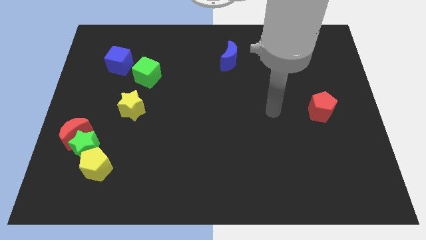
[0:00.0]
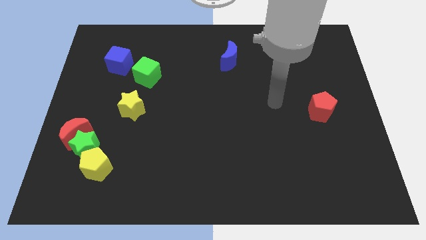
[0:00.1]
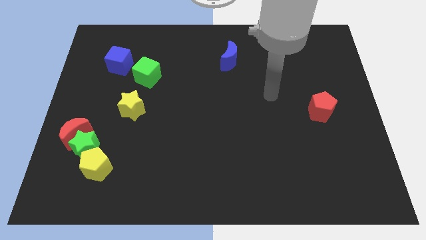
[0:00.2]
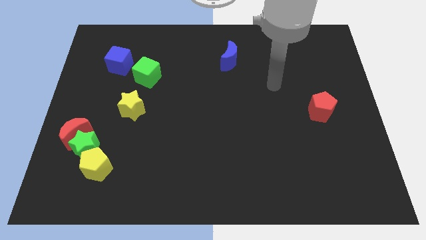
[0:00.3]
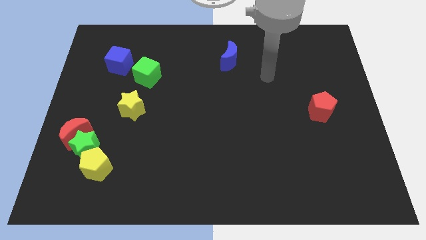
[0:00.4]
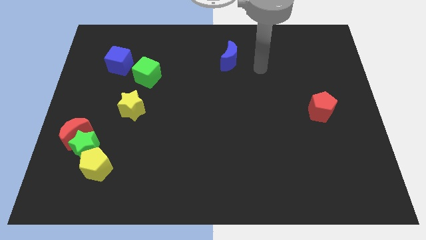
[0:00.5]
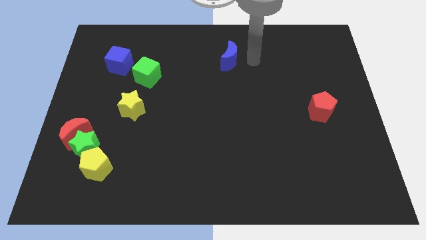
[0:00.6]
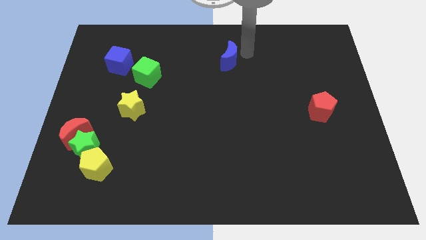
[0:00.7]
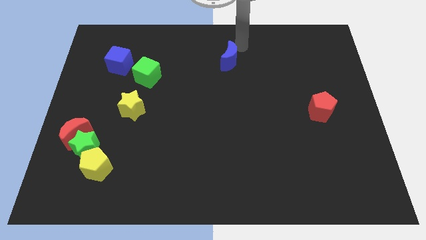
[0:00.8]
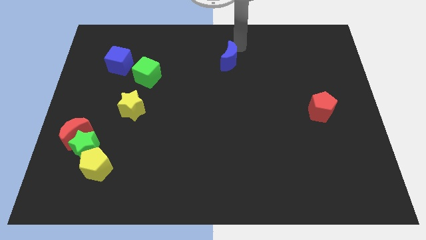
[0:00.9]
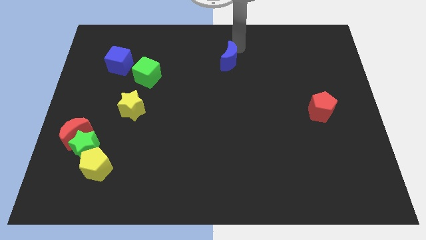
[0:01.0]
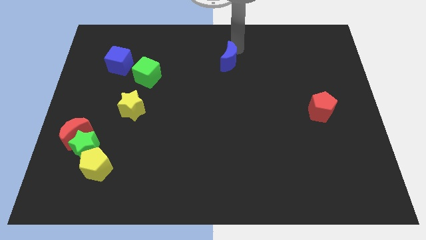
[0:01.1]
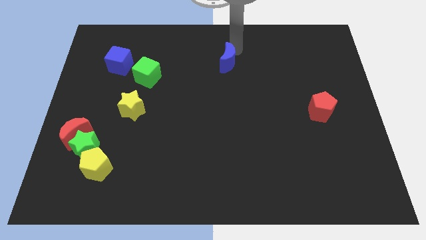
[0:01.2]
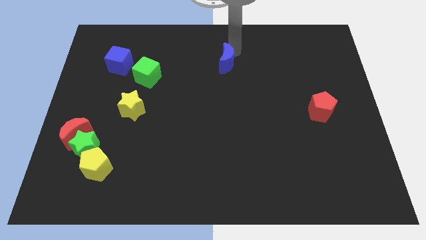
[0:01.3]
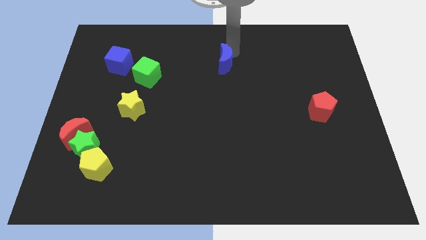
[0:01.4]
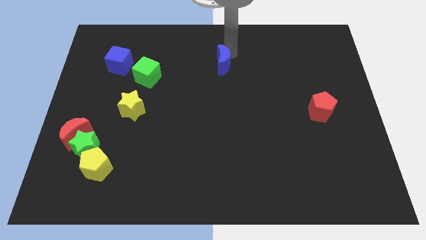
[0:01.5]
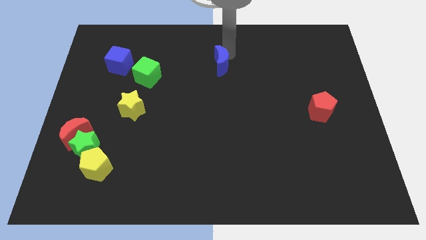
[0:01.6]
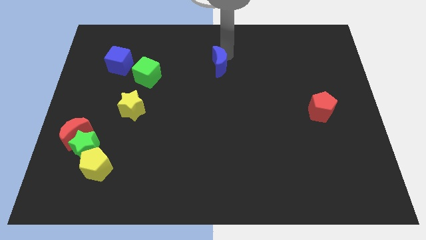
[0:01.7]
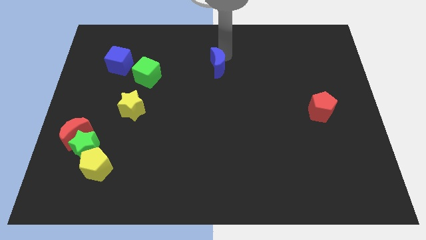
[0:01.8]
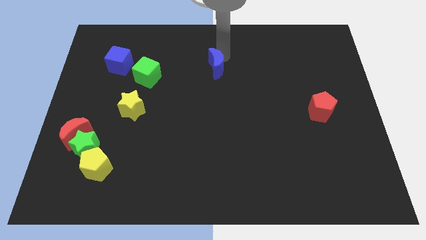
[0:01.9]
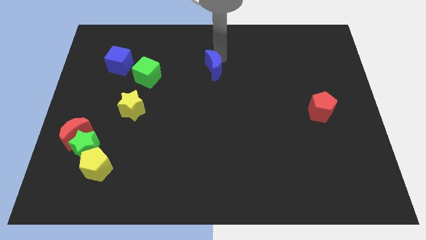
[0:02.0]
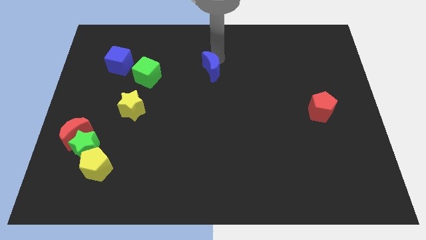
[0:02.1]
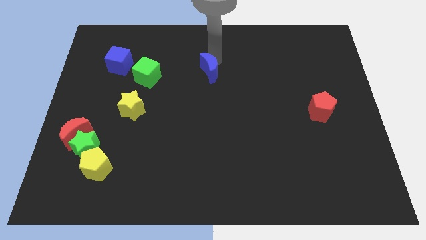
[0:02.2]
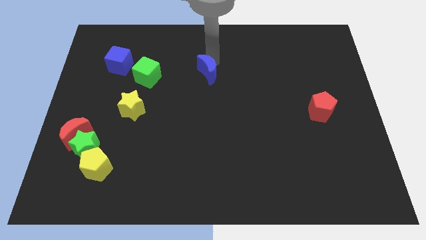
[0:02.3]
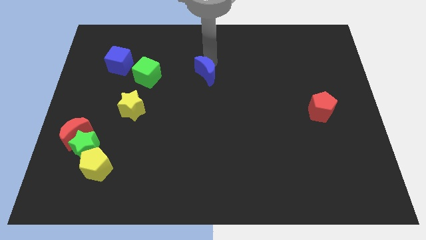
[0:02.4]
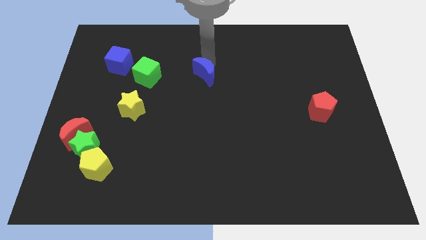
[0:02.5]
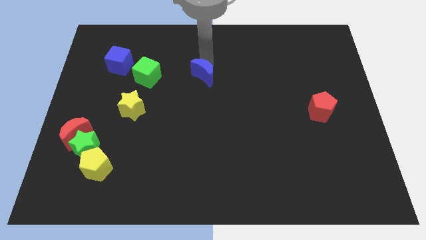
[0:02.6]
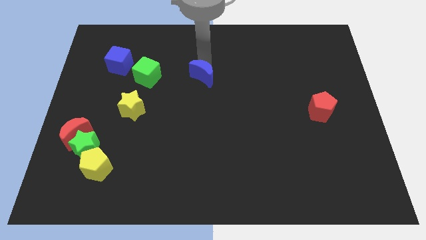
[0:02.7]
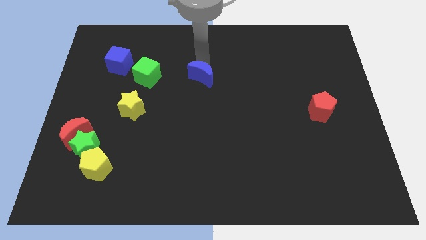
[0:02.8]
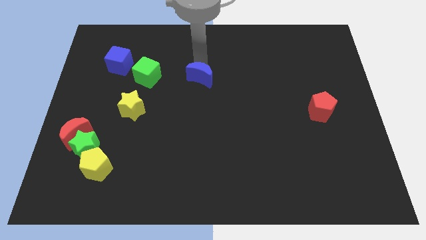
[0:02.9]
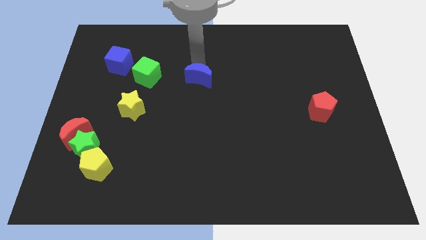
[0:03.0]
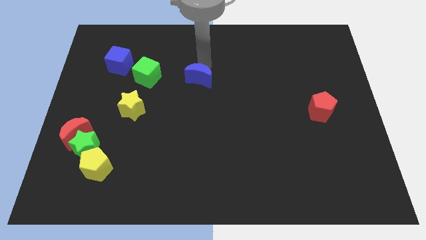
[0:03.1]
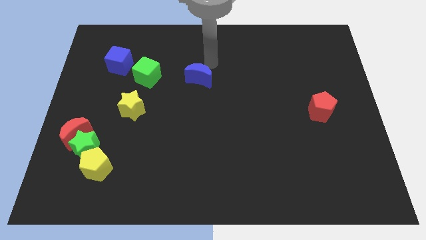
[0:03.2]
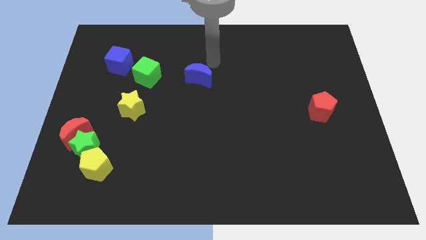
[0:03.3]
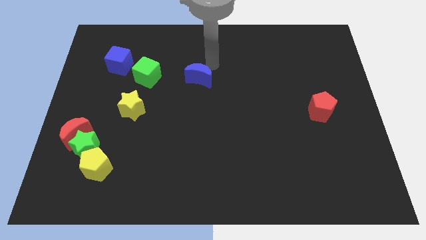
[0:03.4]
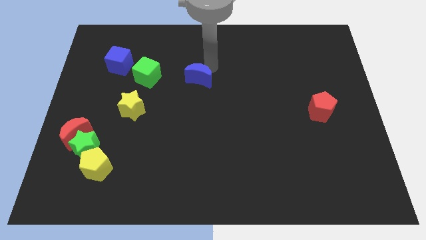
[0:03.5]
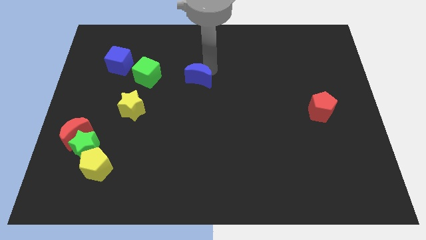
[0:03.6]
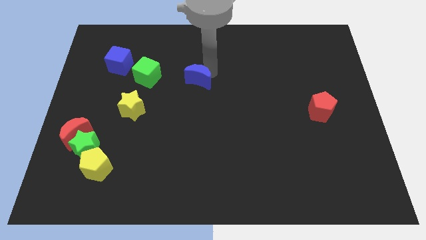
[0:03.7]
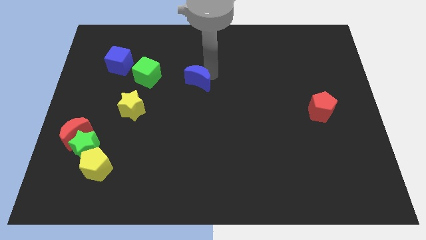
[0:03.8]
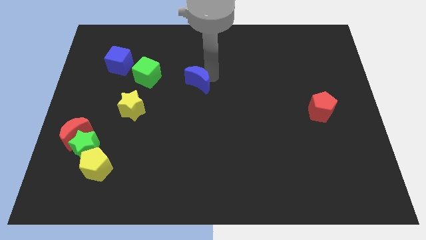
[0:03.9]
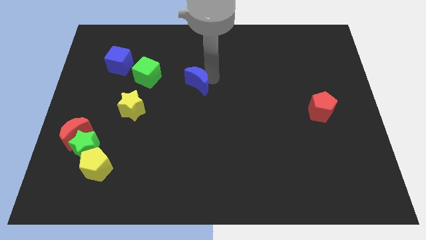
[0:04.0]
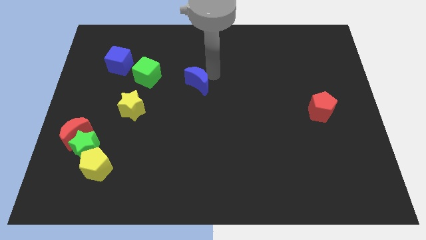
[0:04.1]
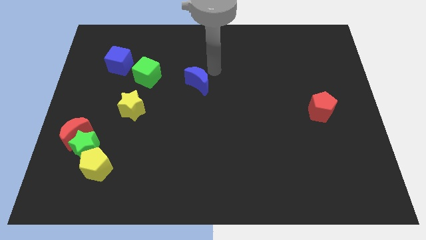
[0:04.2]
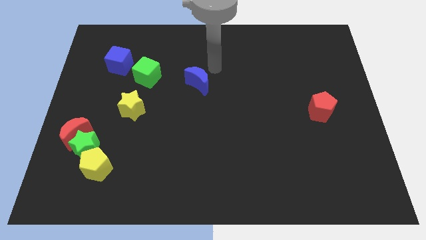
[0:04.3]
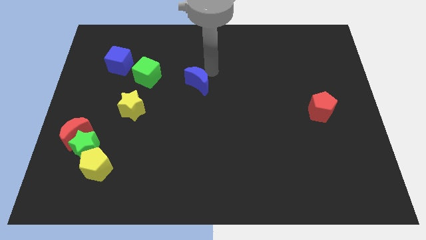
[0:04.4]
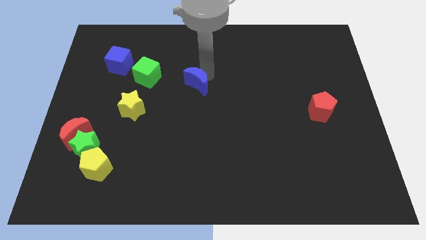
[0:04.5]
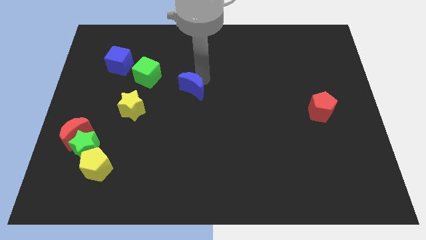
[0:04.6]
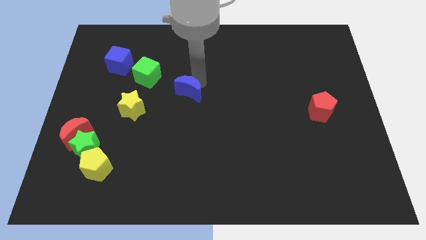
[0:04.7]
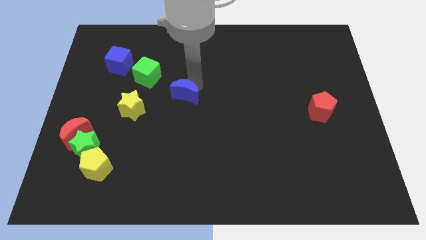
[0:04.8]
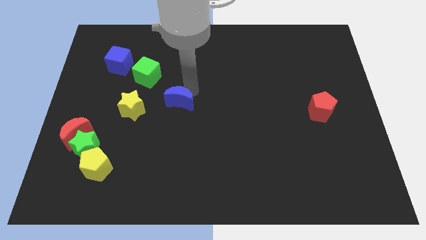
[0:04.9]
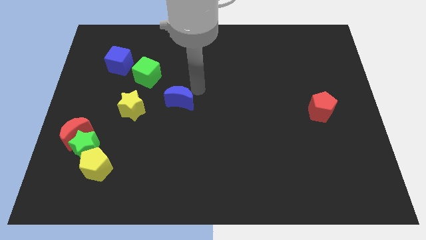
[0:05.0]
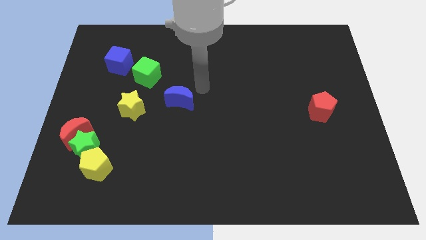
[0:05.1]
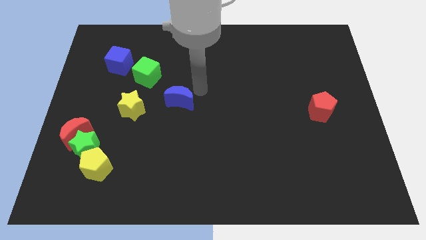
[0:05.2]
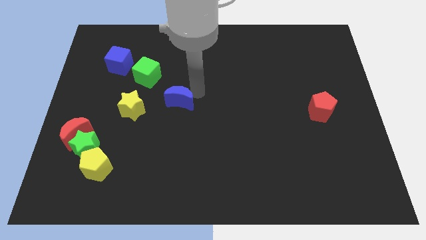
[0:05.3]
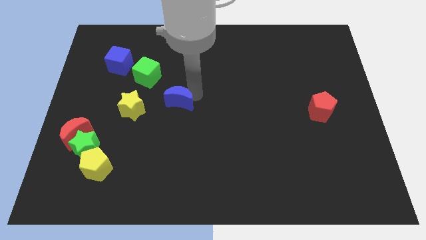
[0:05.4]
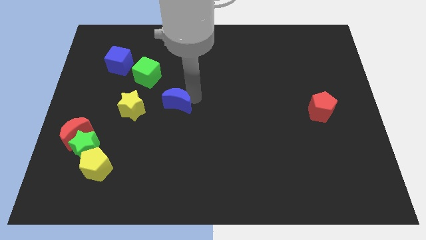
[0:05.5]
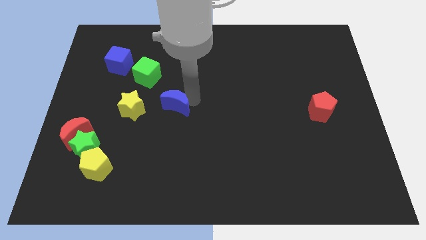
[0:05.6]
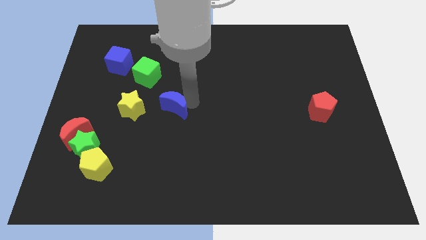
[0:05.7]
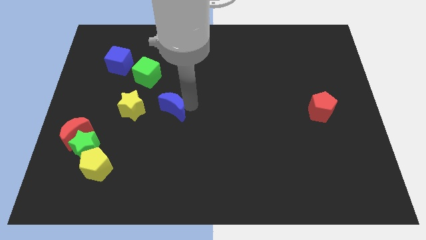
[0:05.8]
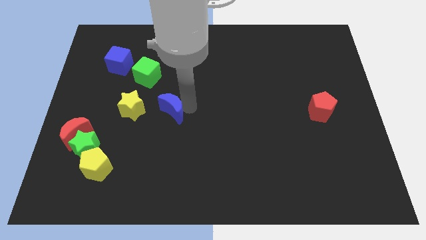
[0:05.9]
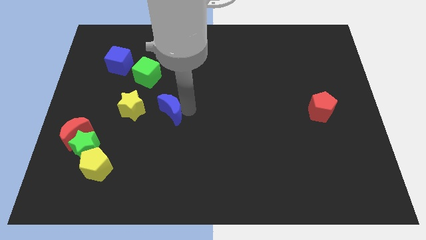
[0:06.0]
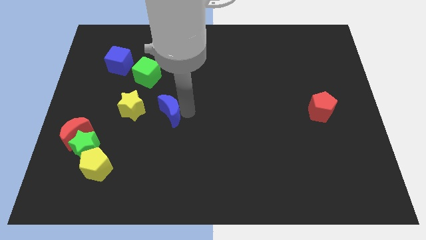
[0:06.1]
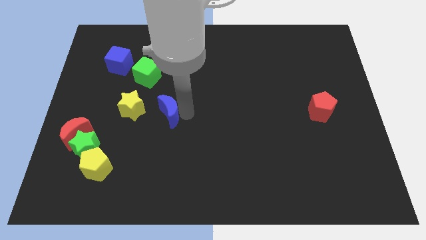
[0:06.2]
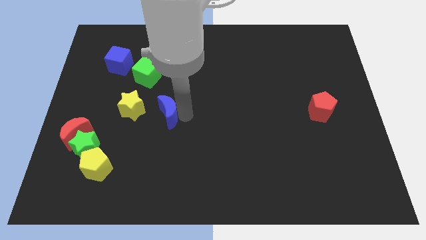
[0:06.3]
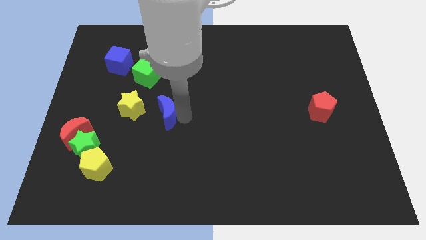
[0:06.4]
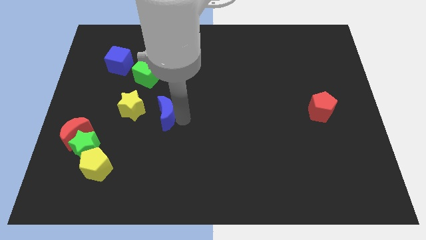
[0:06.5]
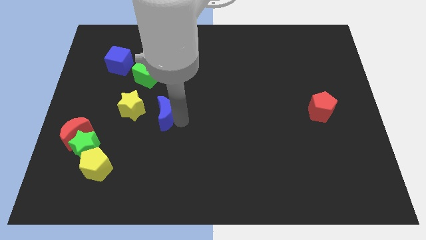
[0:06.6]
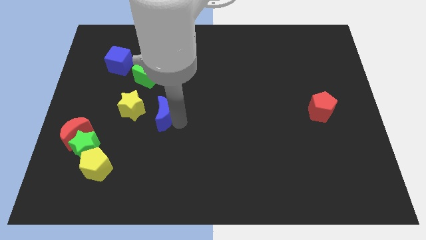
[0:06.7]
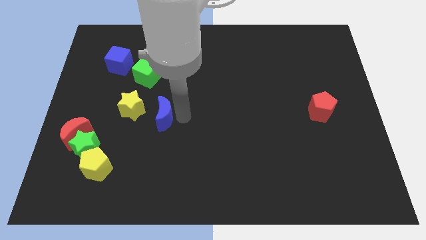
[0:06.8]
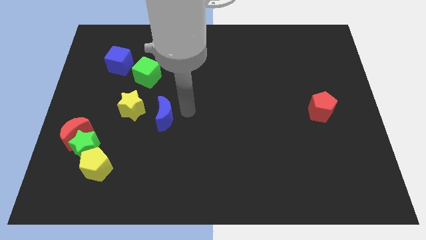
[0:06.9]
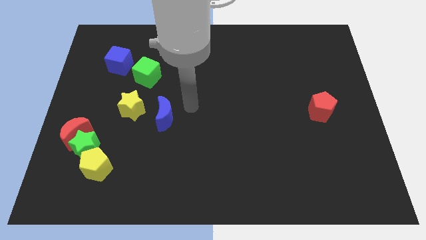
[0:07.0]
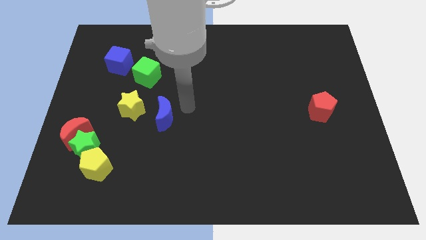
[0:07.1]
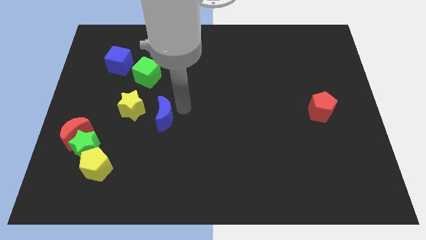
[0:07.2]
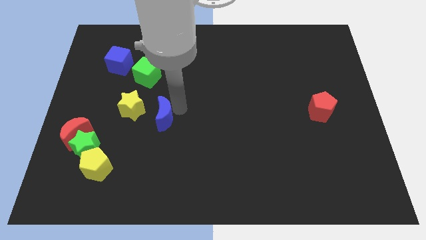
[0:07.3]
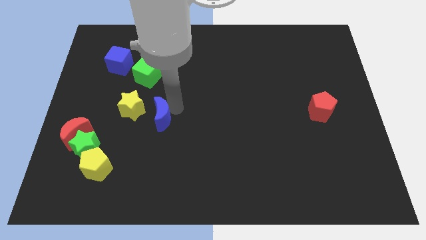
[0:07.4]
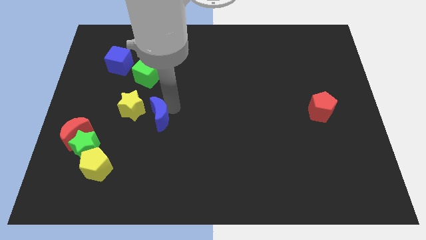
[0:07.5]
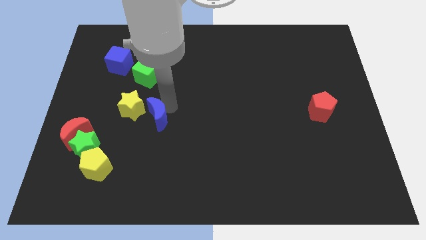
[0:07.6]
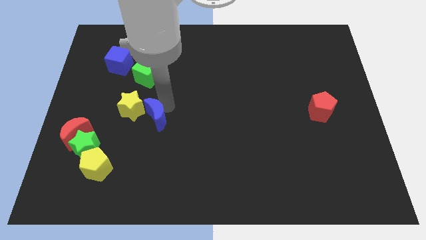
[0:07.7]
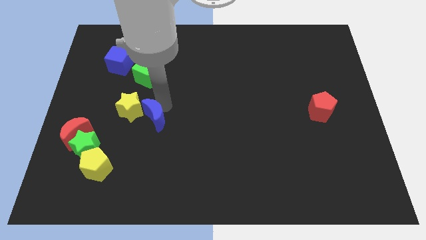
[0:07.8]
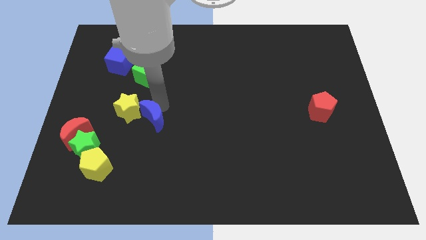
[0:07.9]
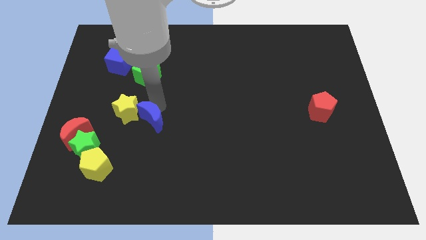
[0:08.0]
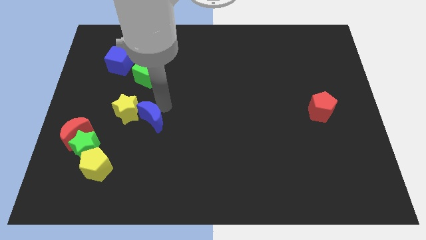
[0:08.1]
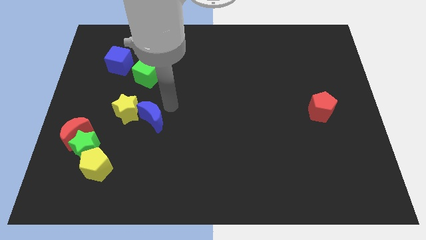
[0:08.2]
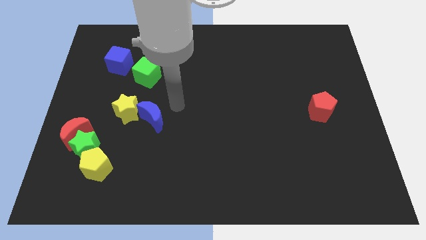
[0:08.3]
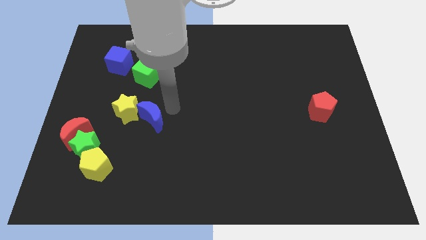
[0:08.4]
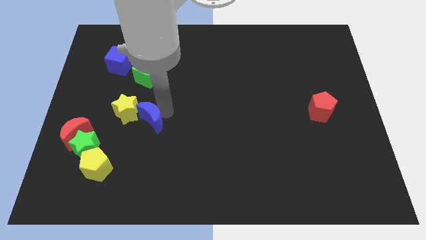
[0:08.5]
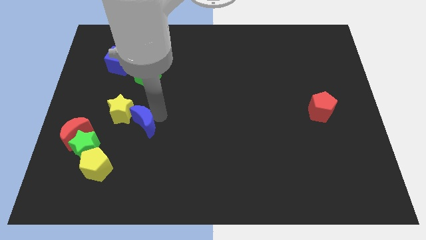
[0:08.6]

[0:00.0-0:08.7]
put the blue moon just right of the red moon
